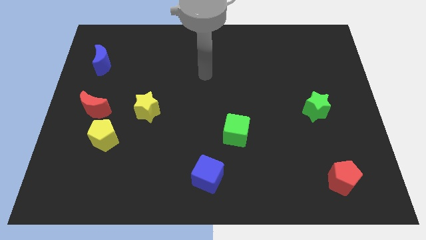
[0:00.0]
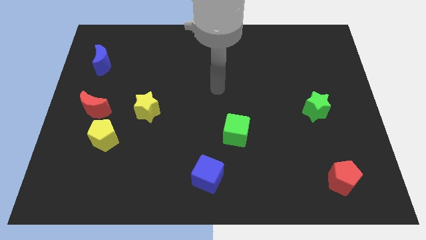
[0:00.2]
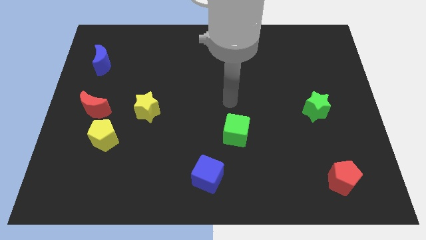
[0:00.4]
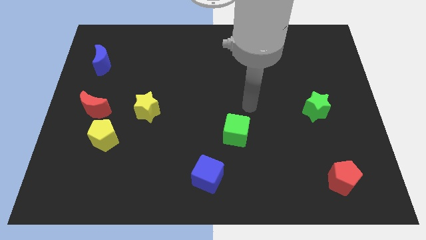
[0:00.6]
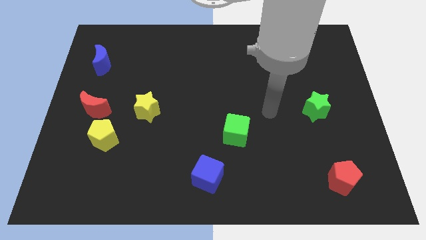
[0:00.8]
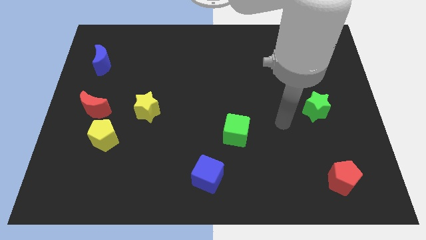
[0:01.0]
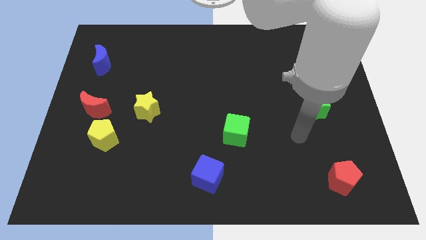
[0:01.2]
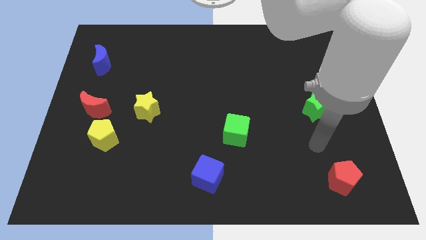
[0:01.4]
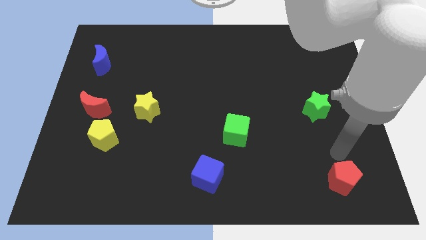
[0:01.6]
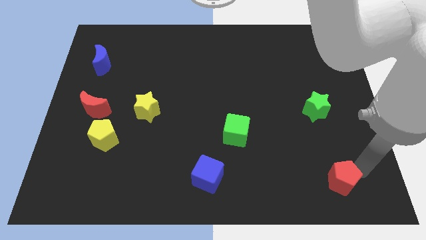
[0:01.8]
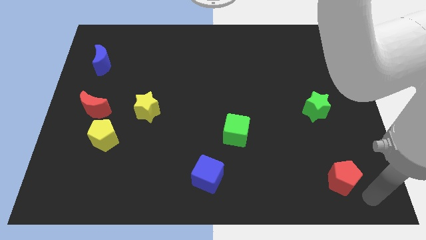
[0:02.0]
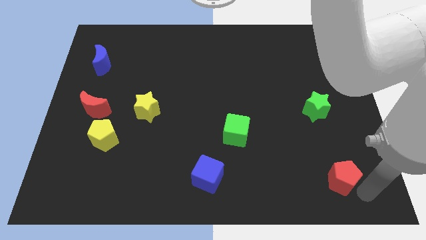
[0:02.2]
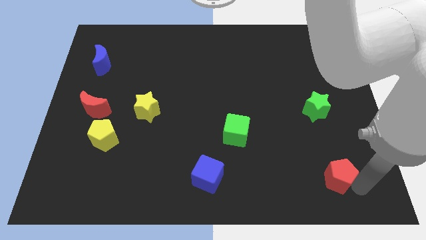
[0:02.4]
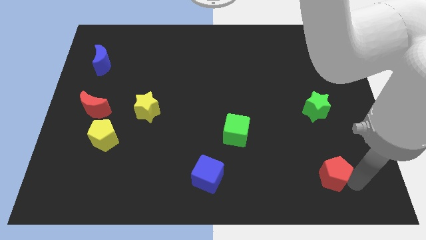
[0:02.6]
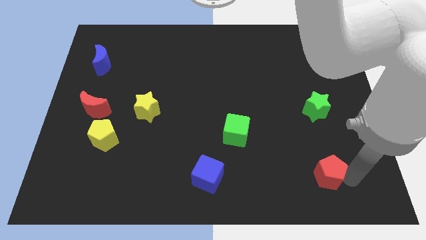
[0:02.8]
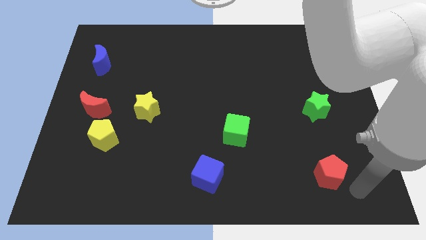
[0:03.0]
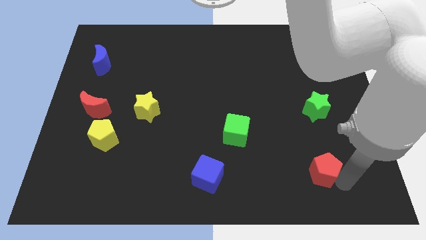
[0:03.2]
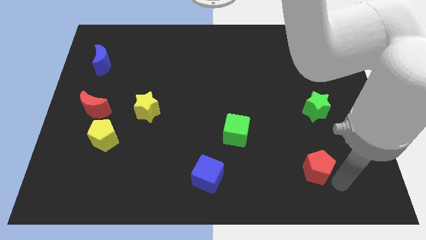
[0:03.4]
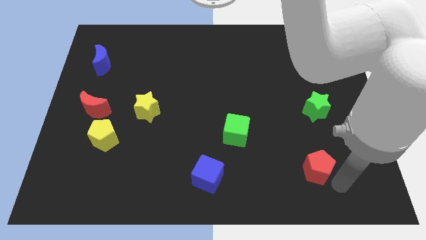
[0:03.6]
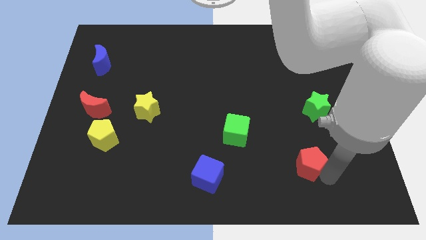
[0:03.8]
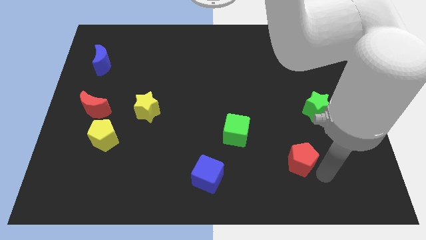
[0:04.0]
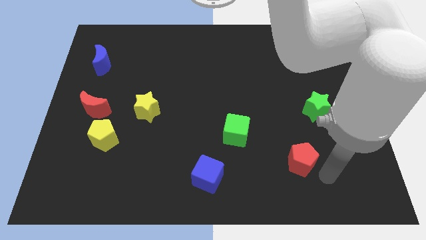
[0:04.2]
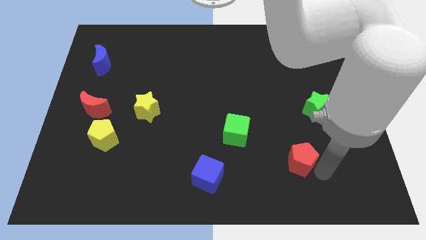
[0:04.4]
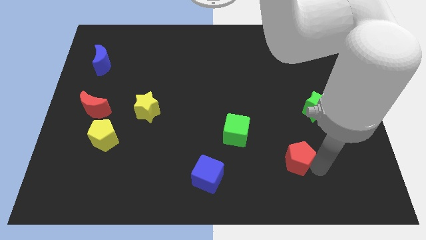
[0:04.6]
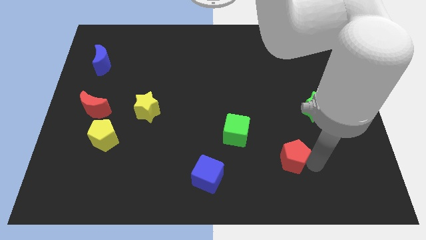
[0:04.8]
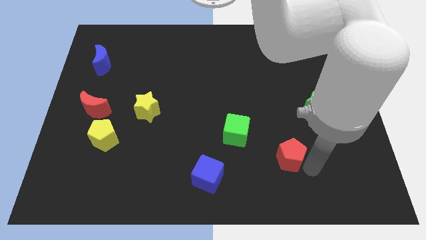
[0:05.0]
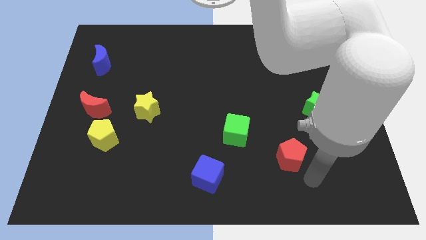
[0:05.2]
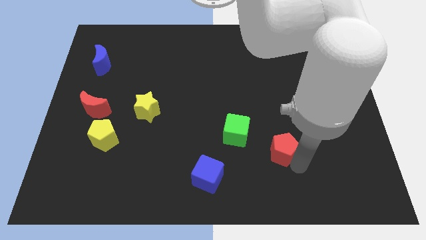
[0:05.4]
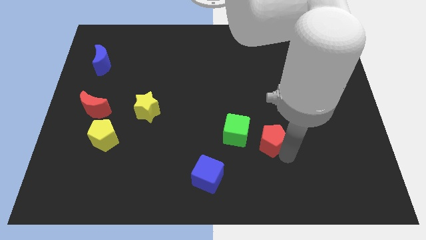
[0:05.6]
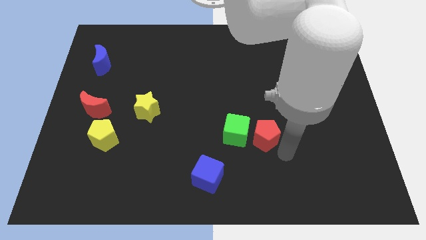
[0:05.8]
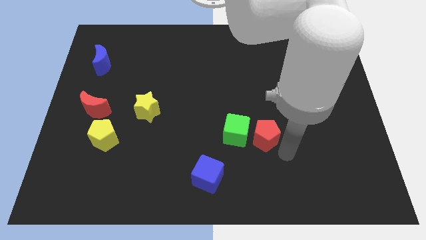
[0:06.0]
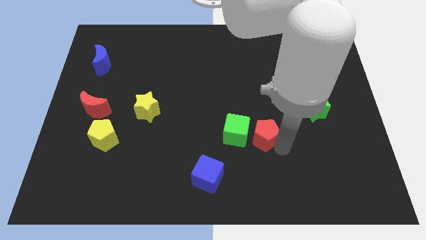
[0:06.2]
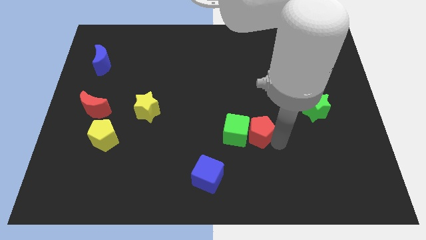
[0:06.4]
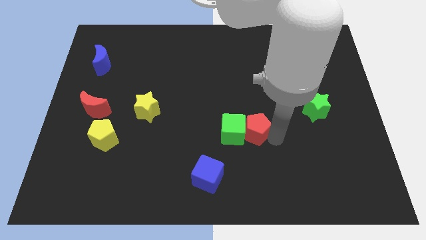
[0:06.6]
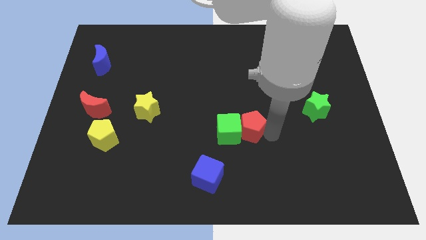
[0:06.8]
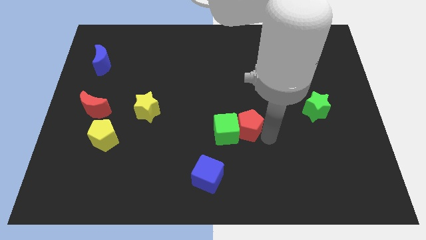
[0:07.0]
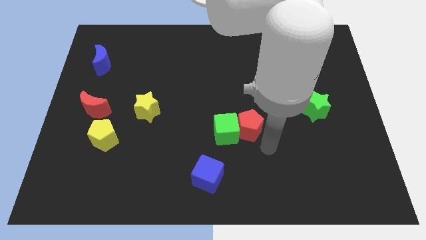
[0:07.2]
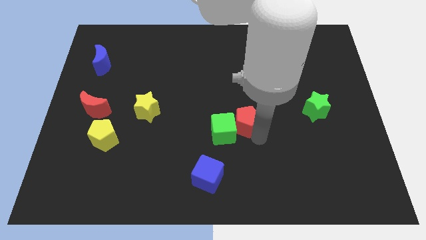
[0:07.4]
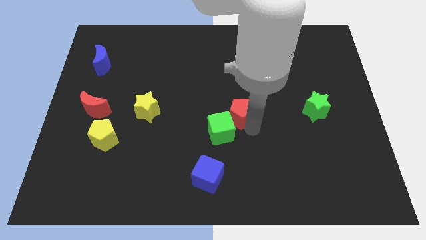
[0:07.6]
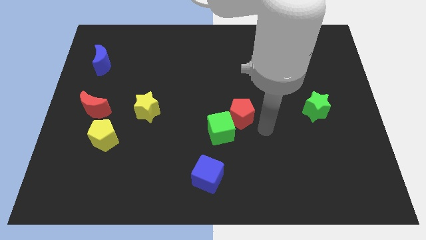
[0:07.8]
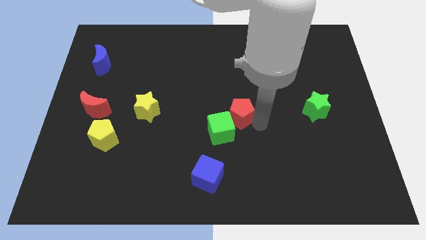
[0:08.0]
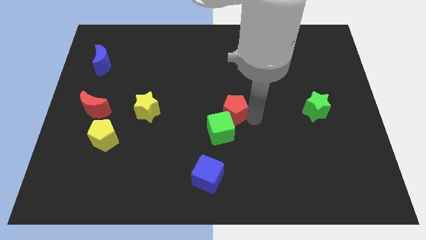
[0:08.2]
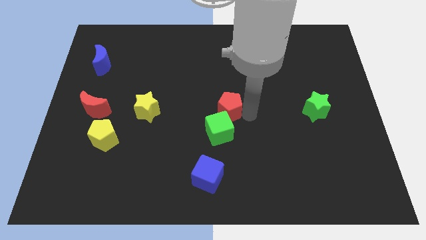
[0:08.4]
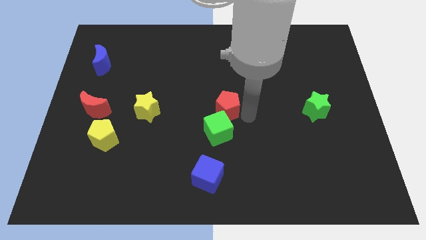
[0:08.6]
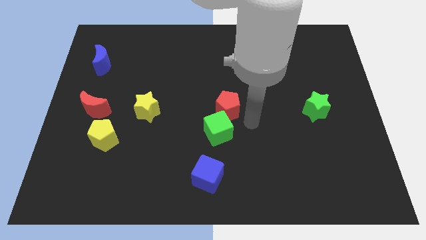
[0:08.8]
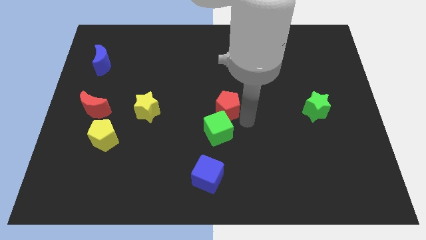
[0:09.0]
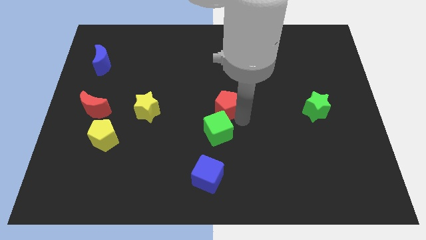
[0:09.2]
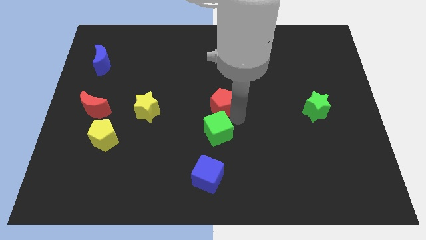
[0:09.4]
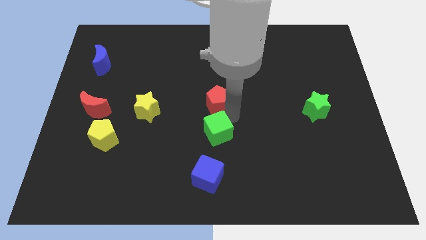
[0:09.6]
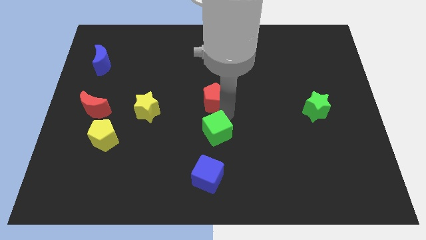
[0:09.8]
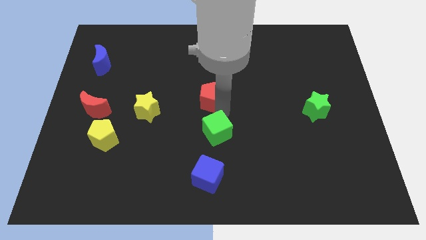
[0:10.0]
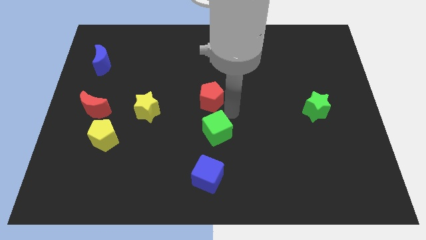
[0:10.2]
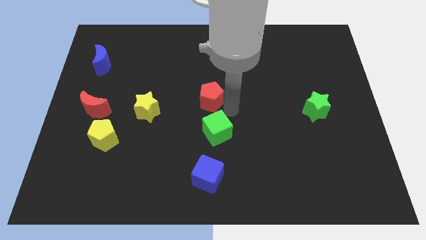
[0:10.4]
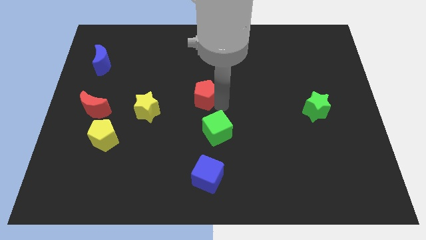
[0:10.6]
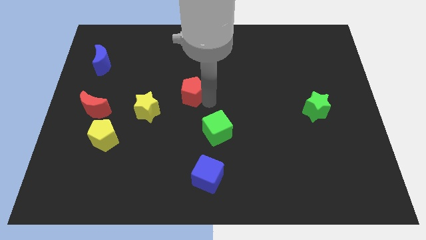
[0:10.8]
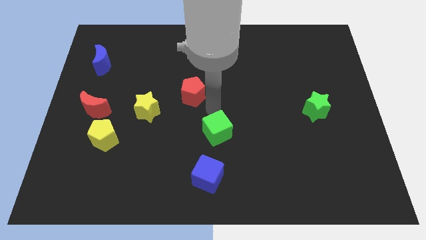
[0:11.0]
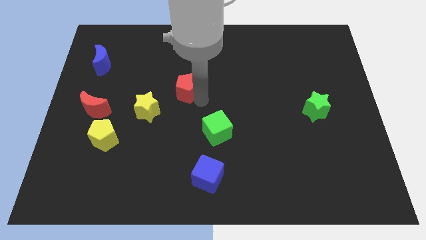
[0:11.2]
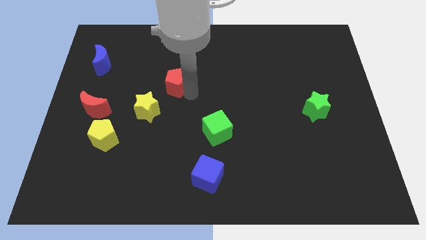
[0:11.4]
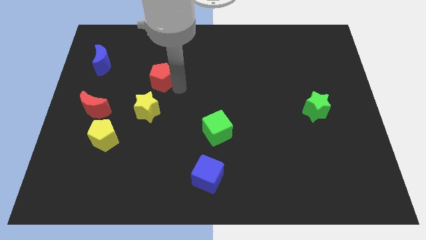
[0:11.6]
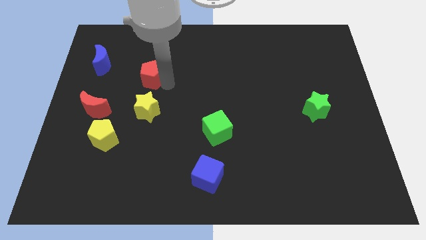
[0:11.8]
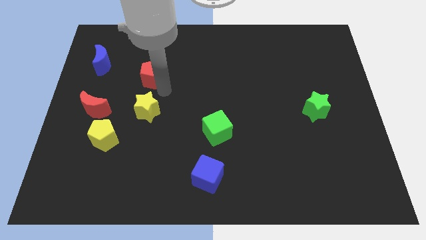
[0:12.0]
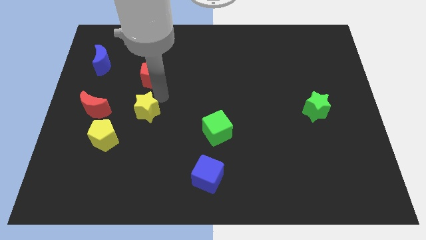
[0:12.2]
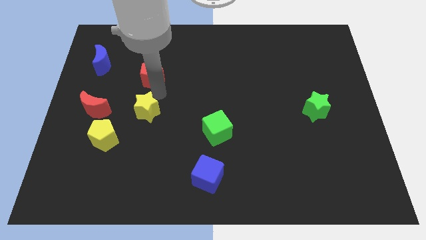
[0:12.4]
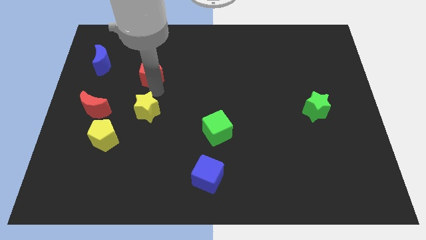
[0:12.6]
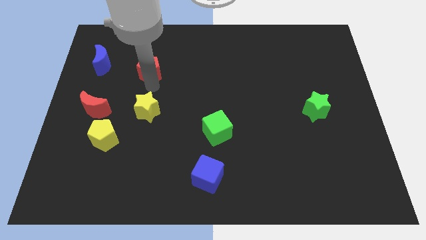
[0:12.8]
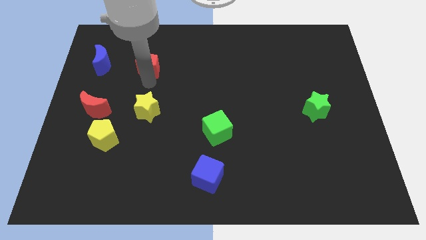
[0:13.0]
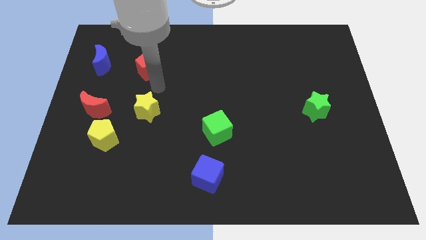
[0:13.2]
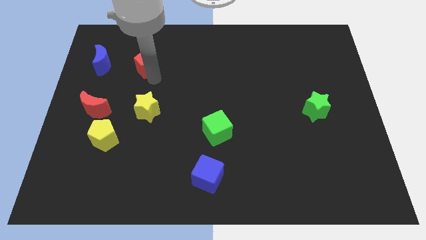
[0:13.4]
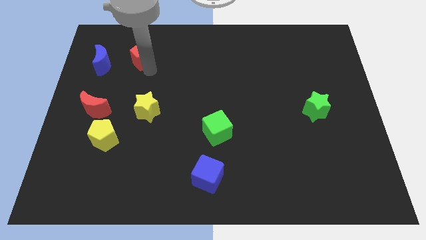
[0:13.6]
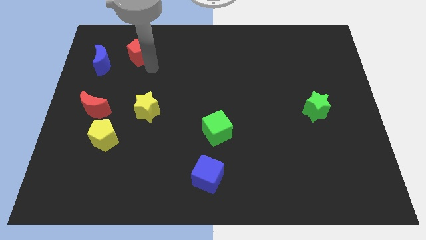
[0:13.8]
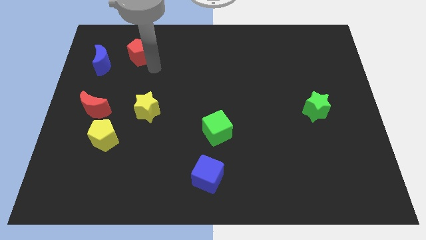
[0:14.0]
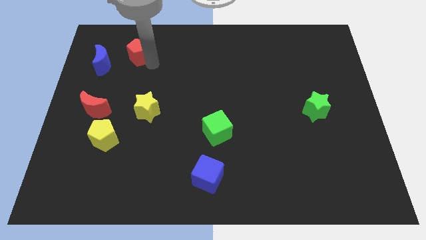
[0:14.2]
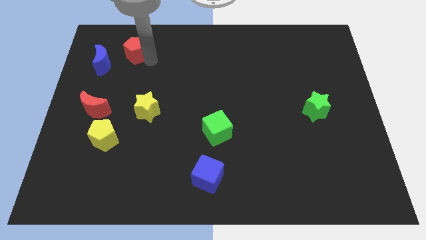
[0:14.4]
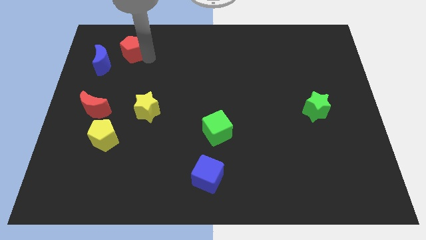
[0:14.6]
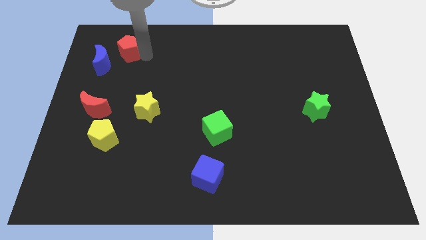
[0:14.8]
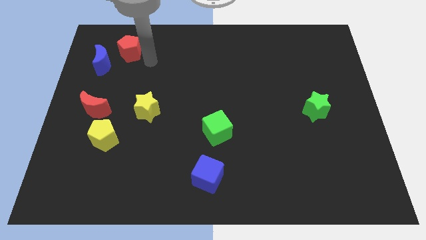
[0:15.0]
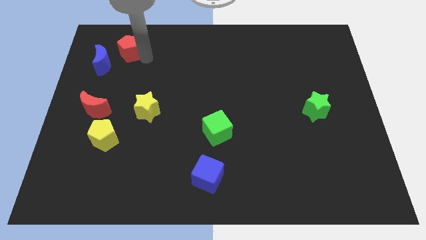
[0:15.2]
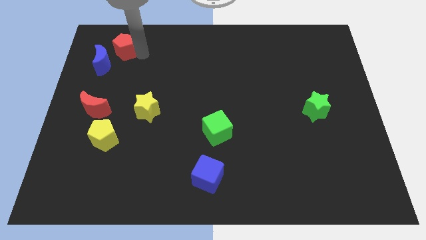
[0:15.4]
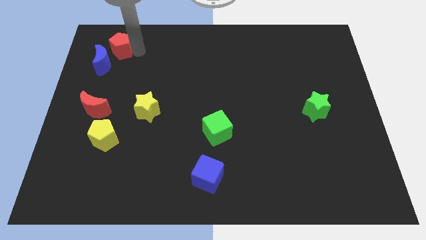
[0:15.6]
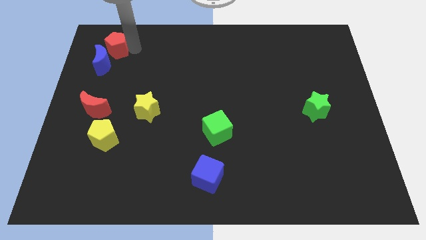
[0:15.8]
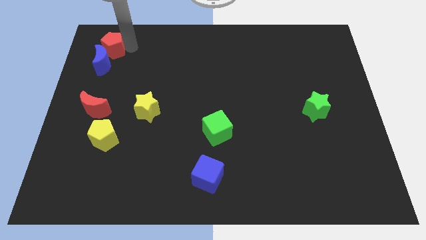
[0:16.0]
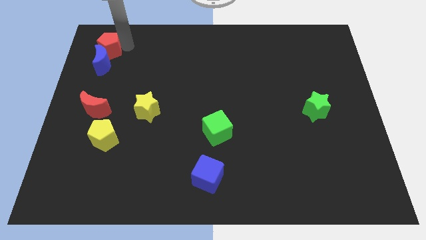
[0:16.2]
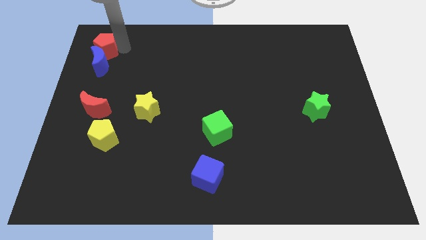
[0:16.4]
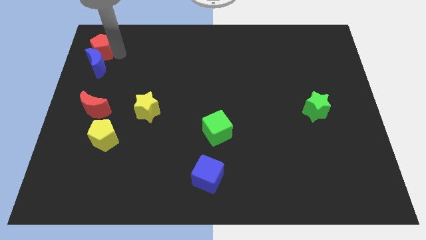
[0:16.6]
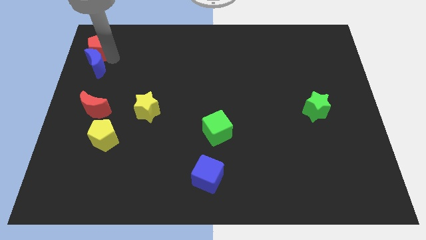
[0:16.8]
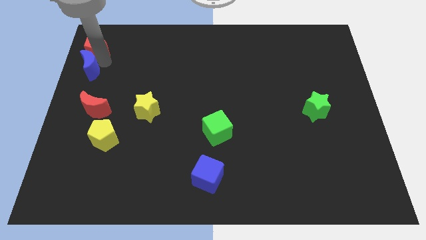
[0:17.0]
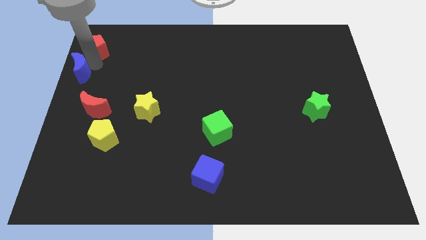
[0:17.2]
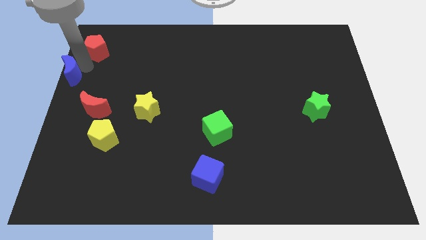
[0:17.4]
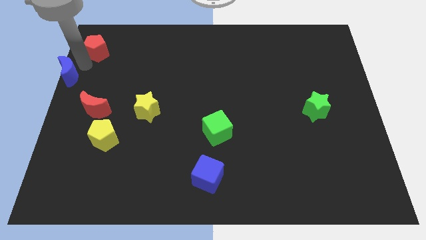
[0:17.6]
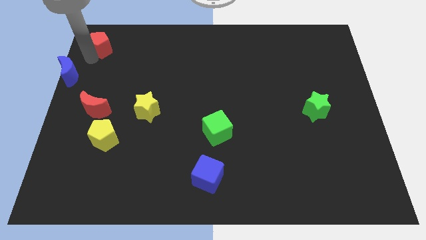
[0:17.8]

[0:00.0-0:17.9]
put the red pentagon to the upper left corner
